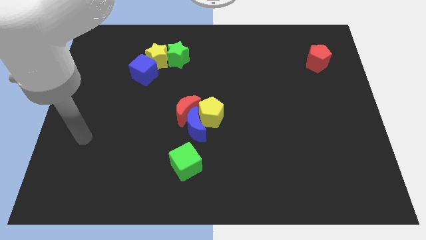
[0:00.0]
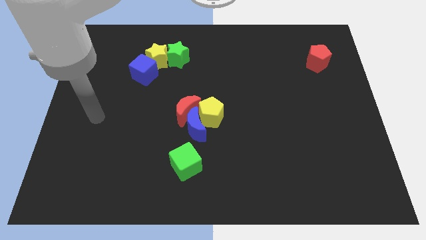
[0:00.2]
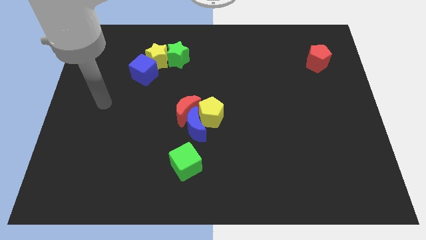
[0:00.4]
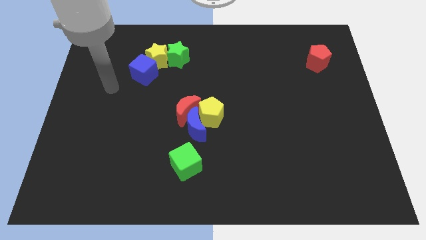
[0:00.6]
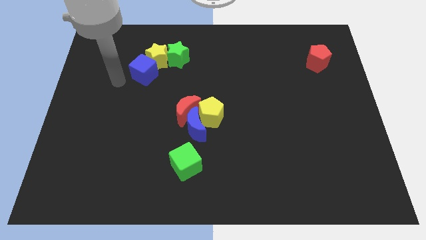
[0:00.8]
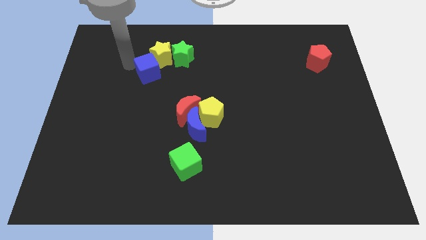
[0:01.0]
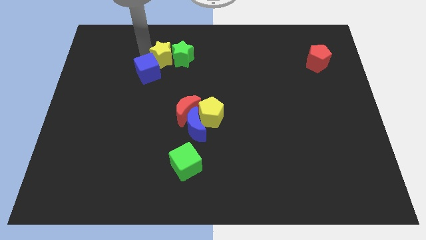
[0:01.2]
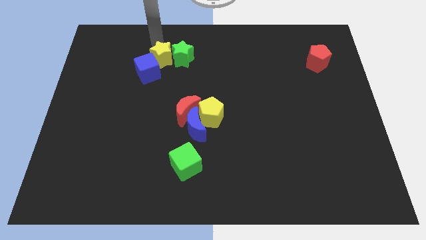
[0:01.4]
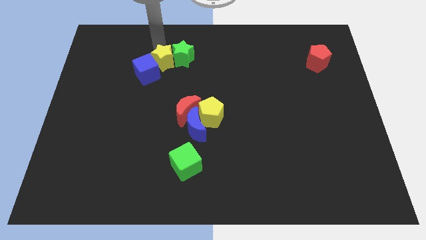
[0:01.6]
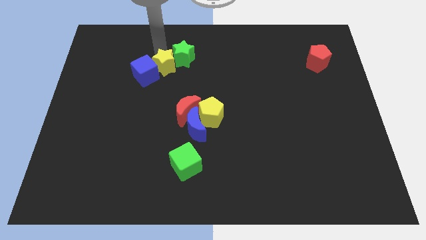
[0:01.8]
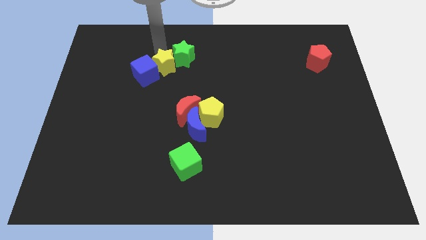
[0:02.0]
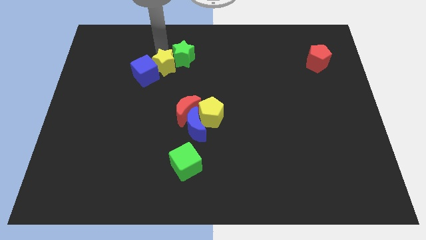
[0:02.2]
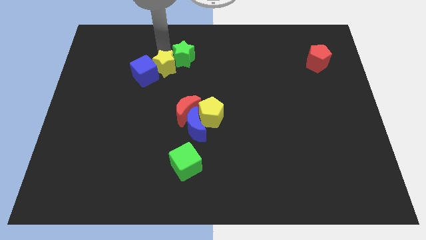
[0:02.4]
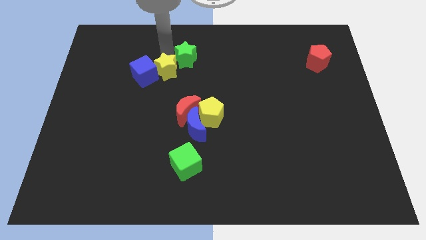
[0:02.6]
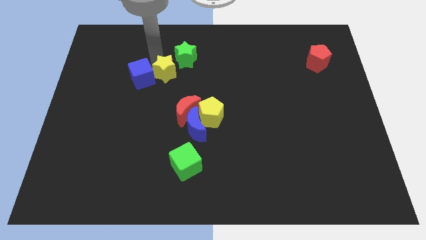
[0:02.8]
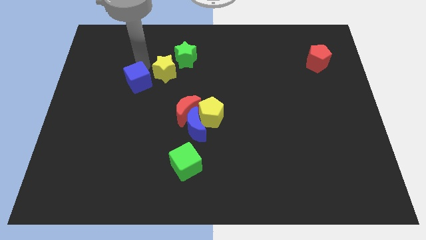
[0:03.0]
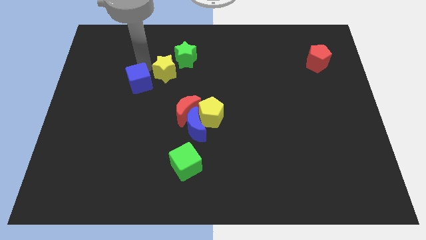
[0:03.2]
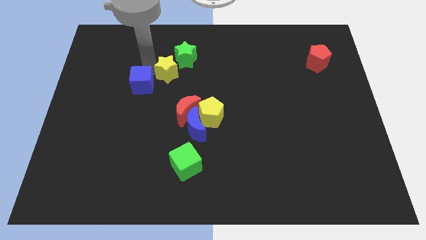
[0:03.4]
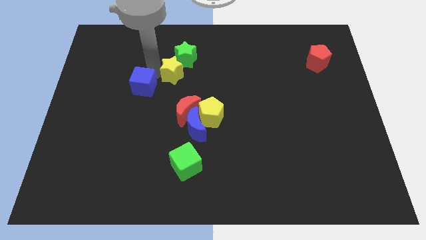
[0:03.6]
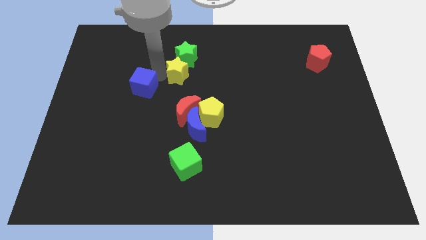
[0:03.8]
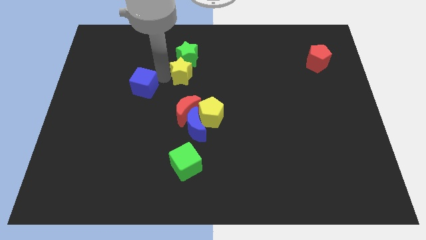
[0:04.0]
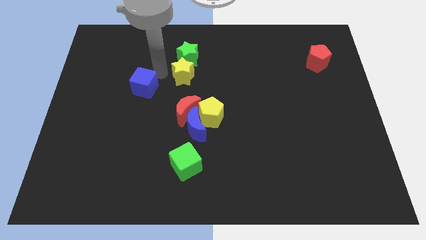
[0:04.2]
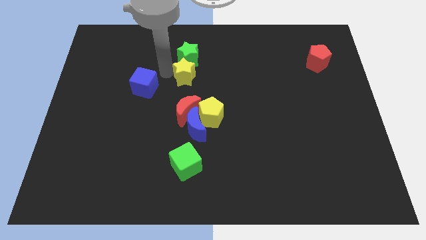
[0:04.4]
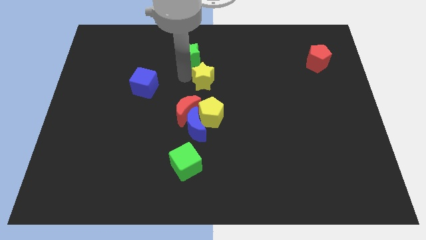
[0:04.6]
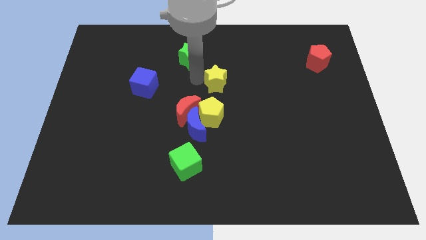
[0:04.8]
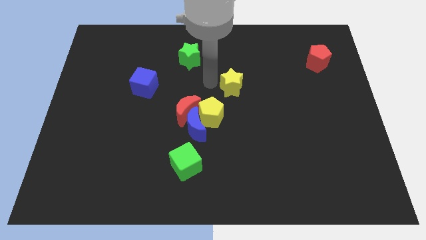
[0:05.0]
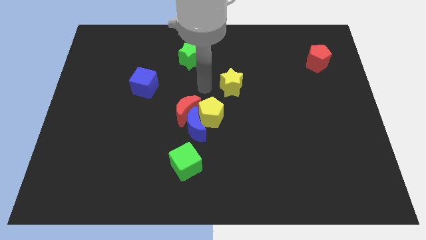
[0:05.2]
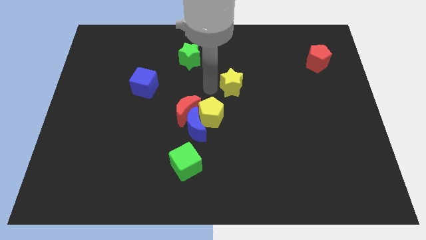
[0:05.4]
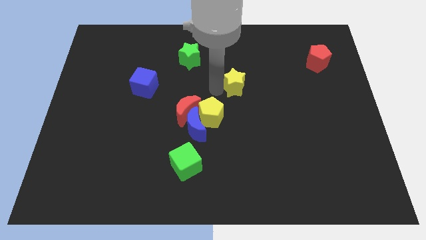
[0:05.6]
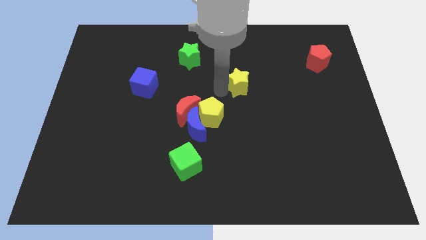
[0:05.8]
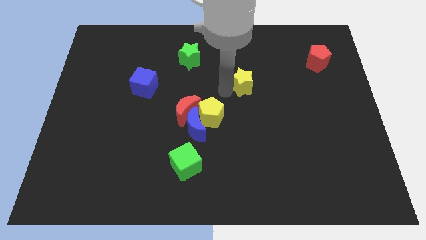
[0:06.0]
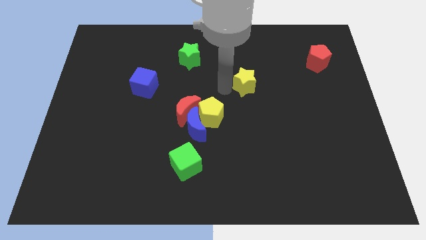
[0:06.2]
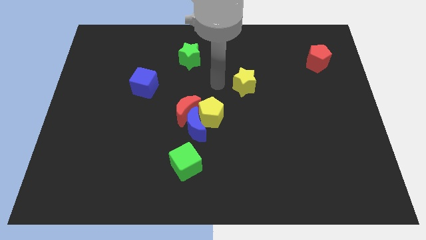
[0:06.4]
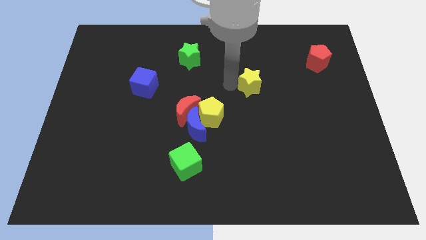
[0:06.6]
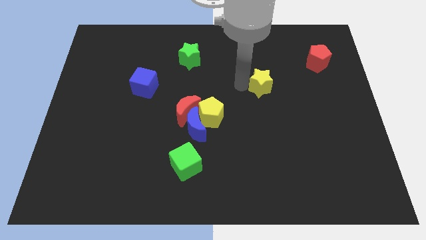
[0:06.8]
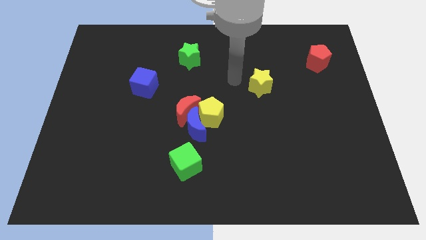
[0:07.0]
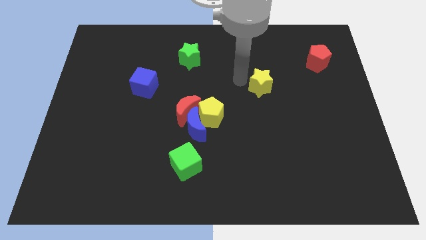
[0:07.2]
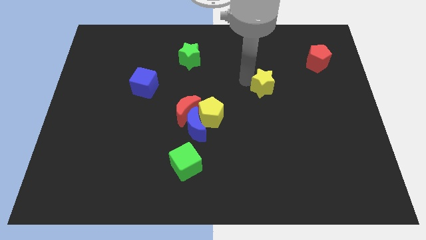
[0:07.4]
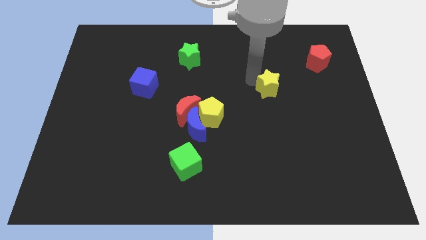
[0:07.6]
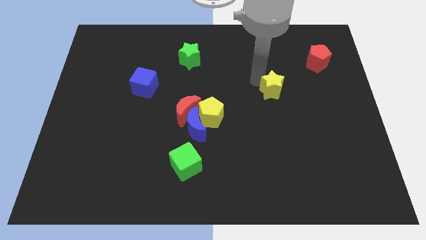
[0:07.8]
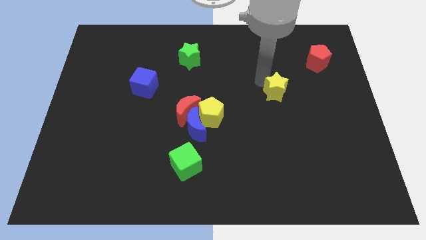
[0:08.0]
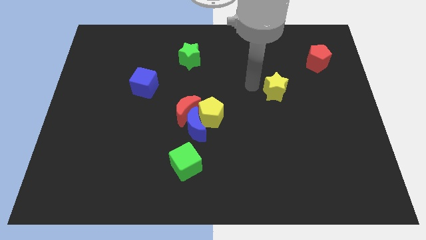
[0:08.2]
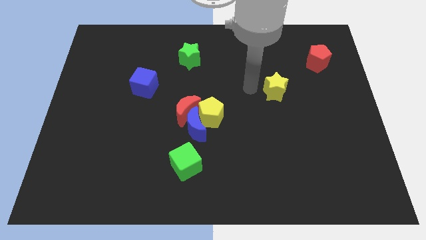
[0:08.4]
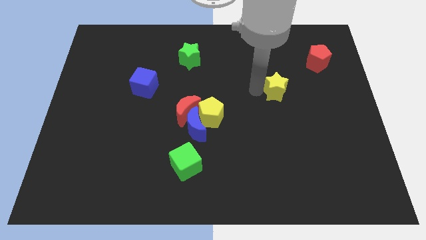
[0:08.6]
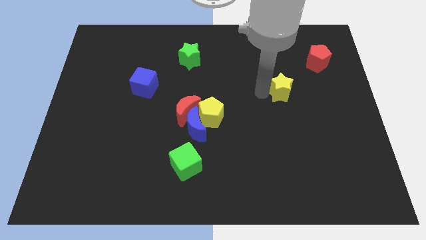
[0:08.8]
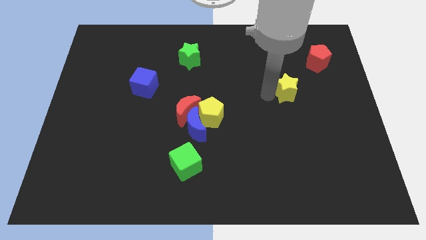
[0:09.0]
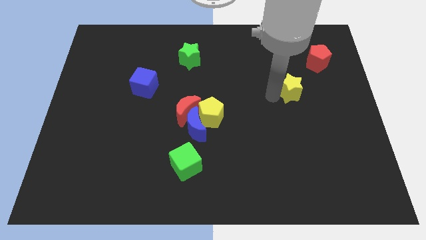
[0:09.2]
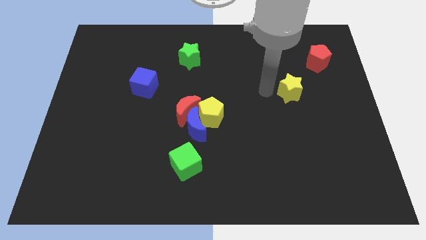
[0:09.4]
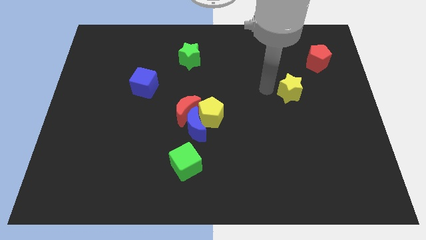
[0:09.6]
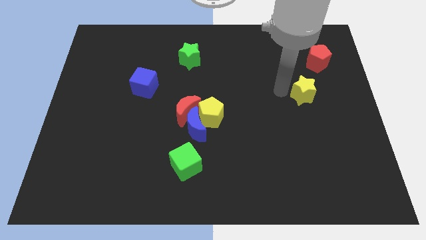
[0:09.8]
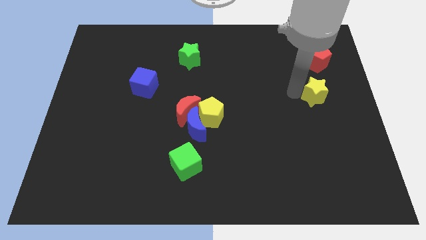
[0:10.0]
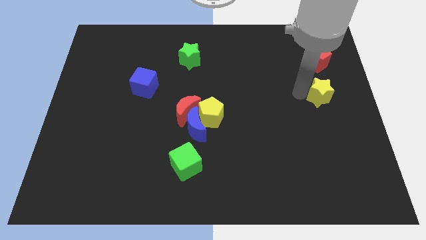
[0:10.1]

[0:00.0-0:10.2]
slide the yellow star to the center right

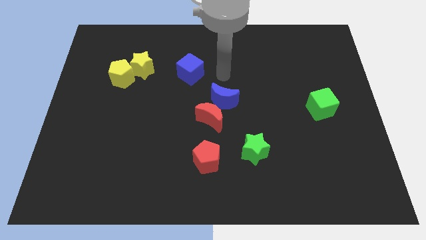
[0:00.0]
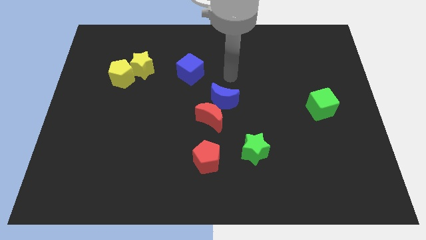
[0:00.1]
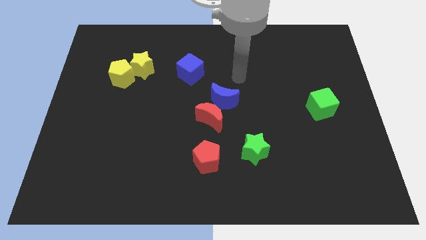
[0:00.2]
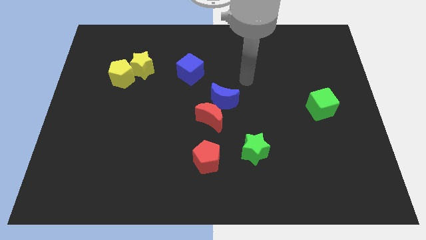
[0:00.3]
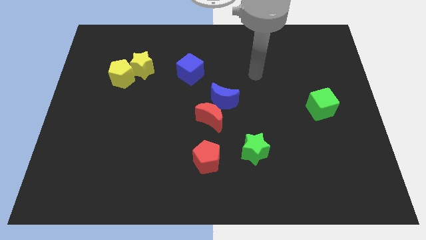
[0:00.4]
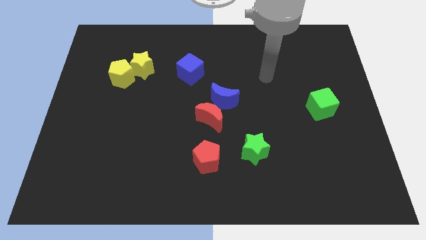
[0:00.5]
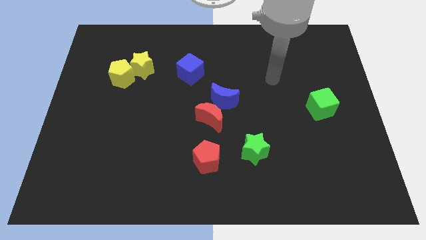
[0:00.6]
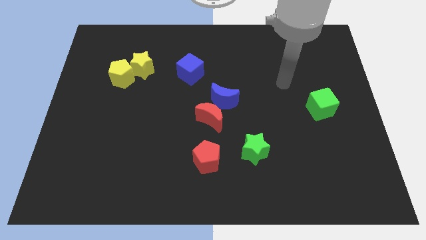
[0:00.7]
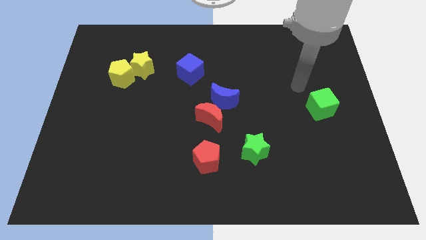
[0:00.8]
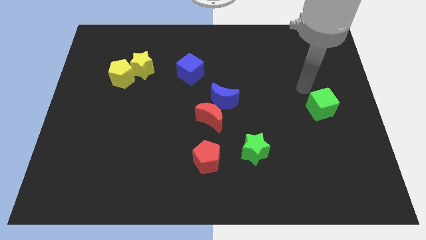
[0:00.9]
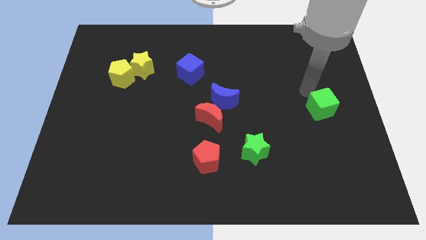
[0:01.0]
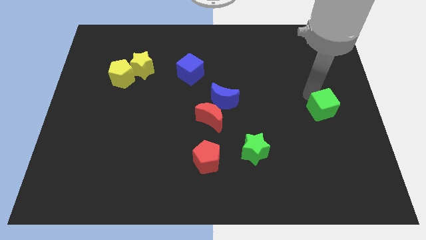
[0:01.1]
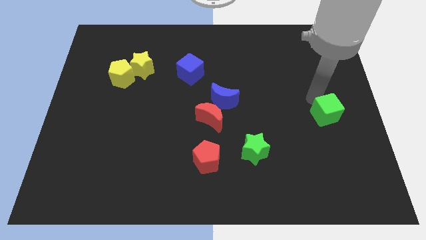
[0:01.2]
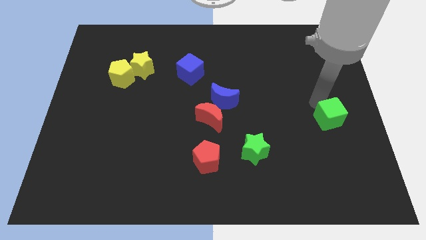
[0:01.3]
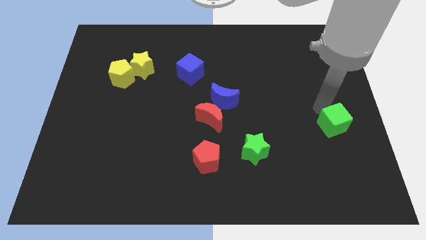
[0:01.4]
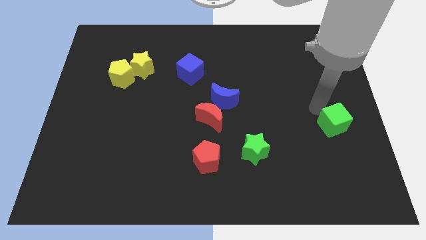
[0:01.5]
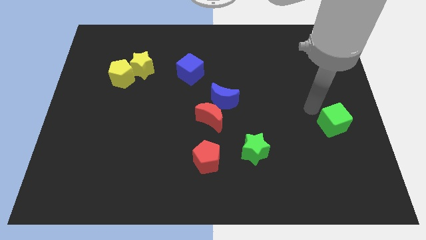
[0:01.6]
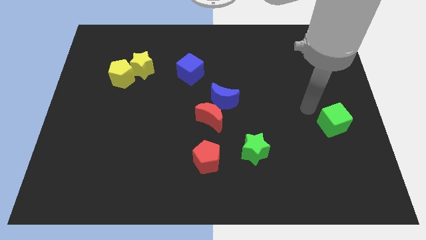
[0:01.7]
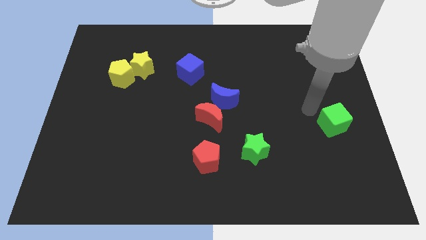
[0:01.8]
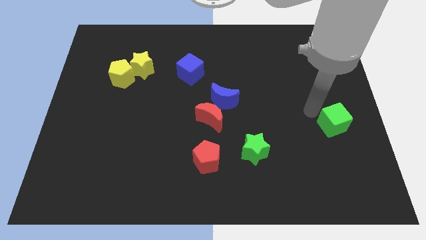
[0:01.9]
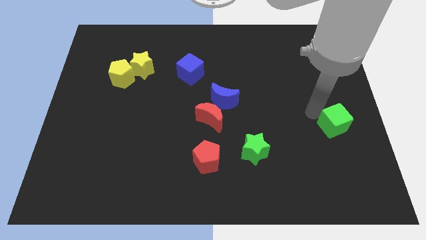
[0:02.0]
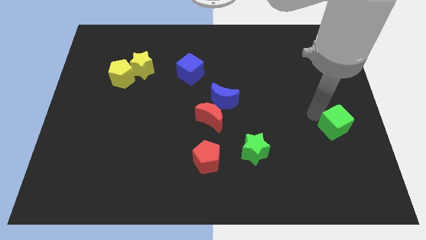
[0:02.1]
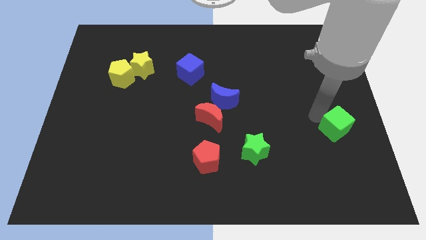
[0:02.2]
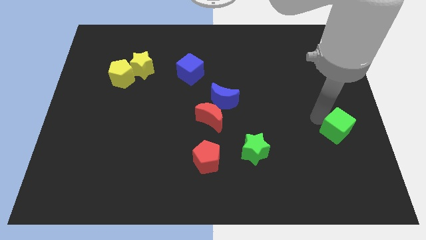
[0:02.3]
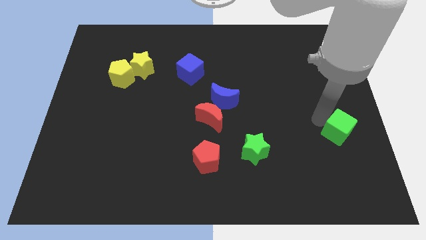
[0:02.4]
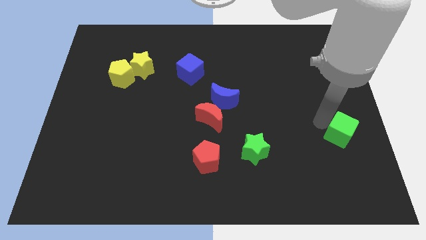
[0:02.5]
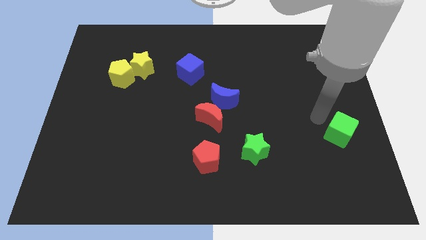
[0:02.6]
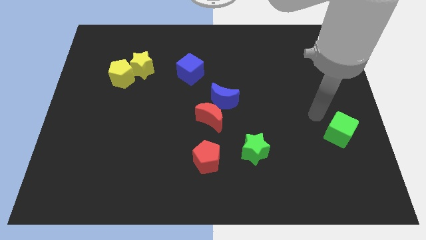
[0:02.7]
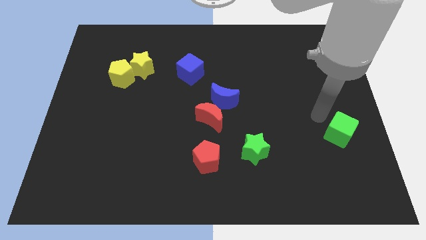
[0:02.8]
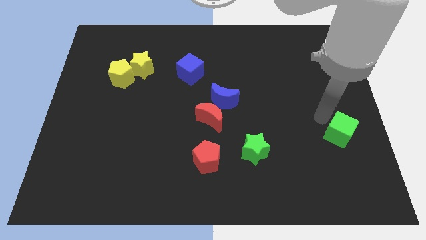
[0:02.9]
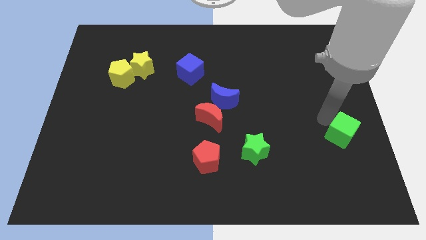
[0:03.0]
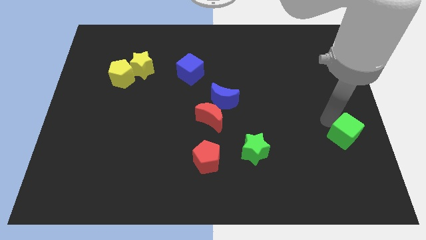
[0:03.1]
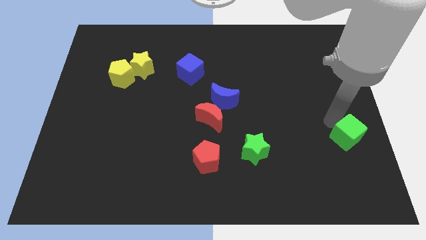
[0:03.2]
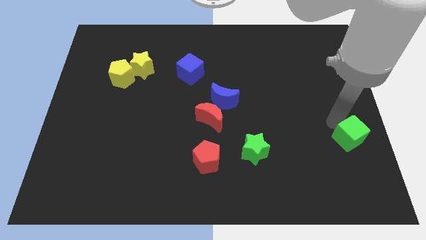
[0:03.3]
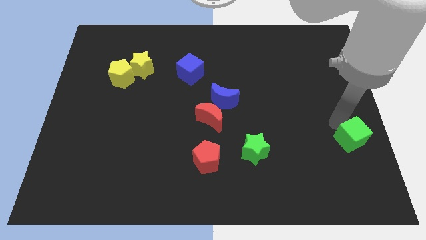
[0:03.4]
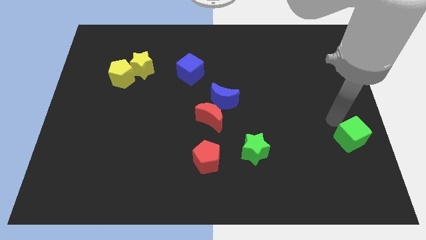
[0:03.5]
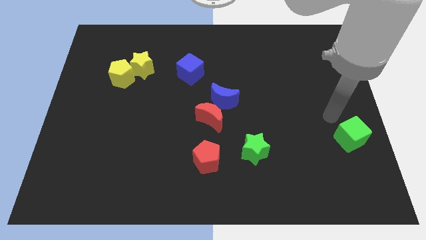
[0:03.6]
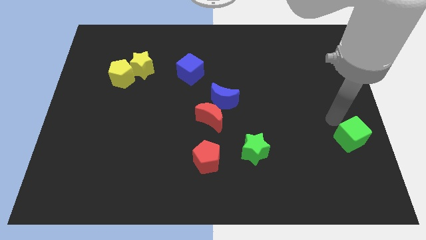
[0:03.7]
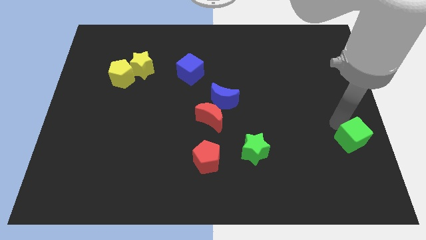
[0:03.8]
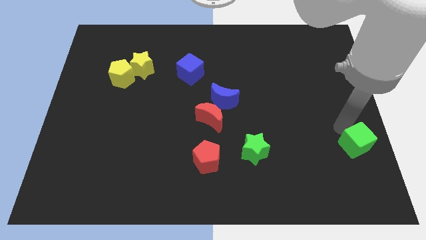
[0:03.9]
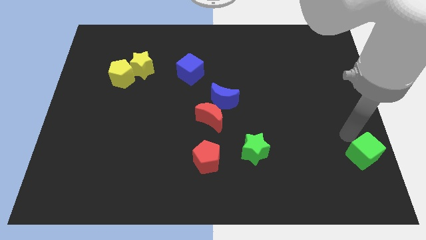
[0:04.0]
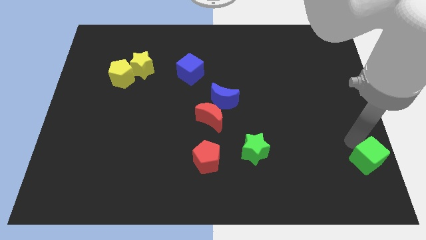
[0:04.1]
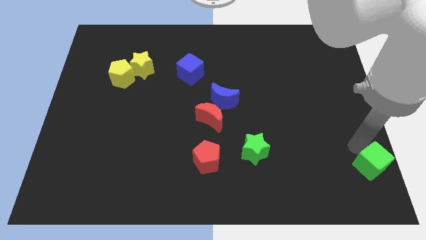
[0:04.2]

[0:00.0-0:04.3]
slide the green cube to the bottom right corner
